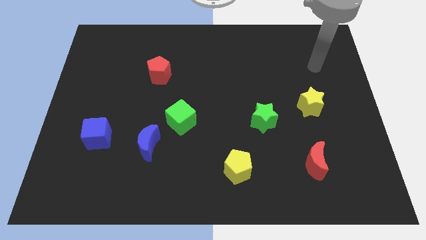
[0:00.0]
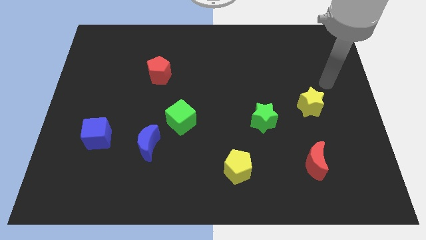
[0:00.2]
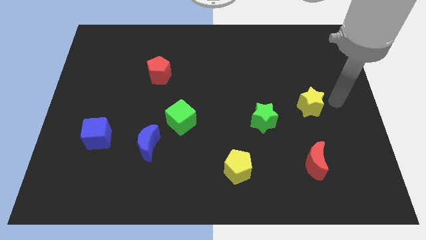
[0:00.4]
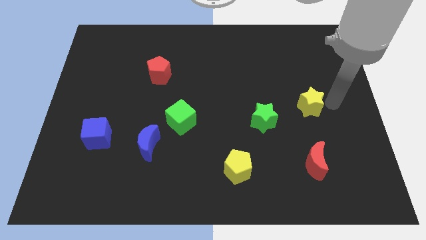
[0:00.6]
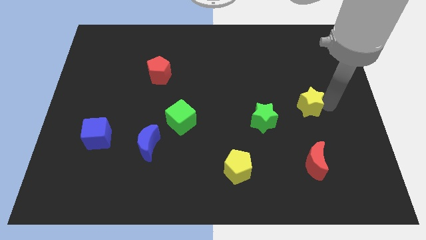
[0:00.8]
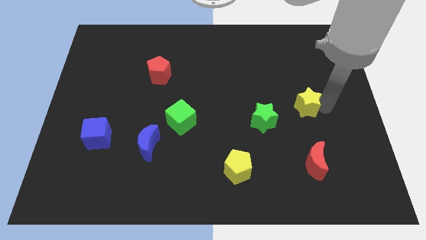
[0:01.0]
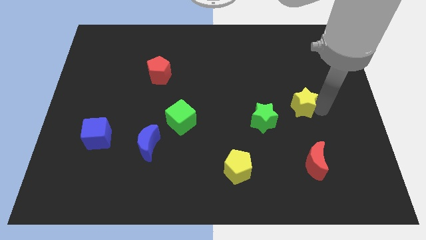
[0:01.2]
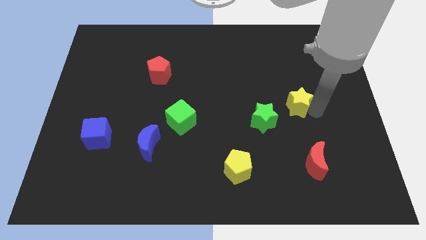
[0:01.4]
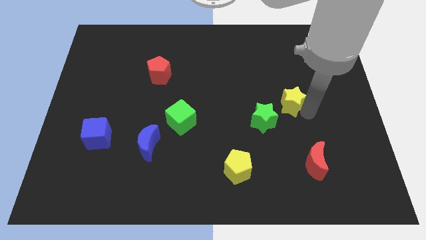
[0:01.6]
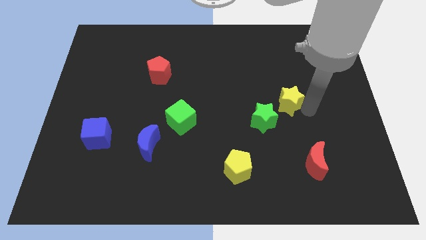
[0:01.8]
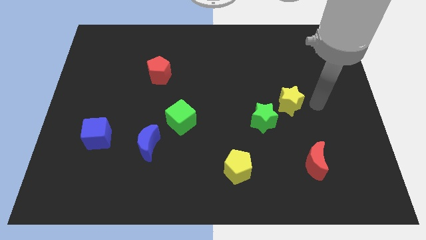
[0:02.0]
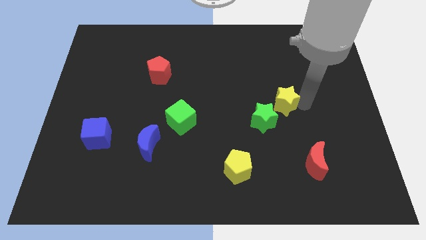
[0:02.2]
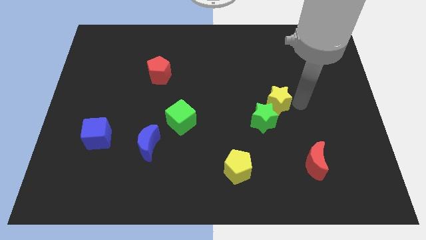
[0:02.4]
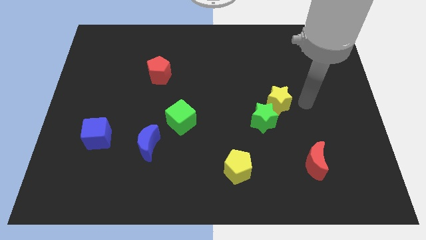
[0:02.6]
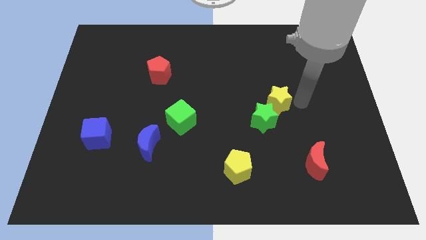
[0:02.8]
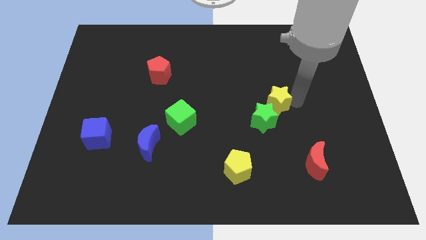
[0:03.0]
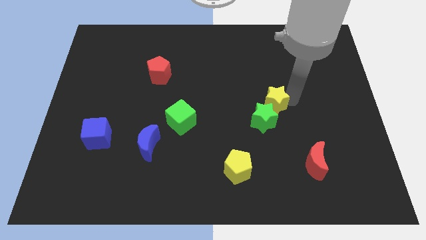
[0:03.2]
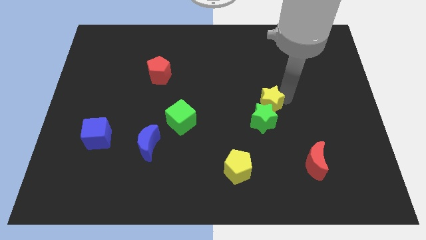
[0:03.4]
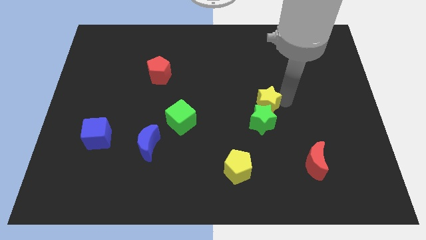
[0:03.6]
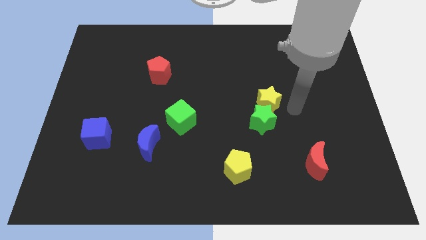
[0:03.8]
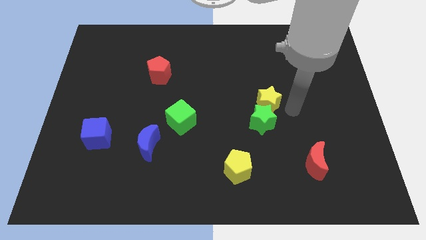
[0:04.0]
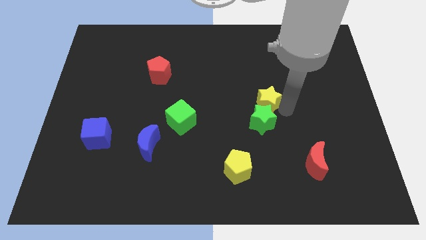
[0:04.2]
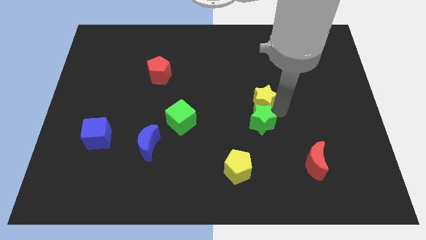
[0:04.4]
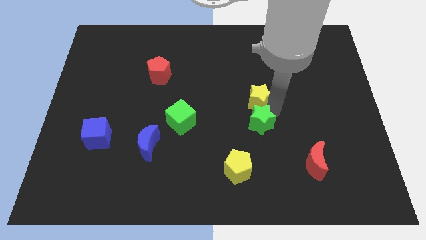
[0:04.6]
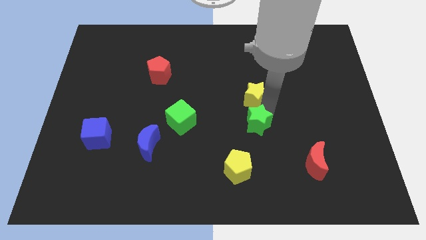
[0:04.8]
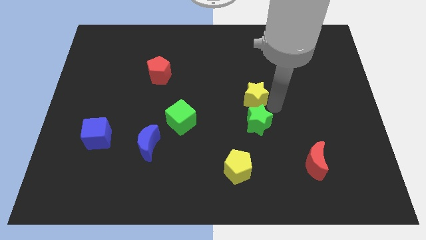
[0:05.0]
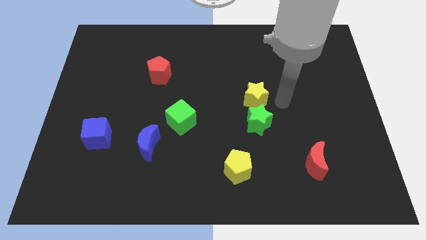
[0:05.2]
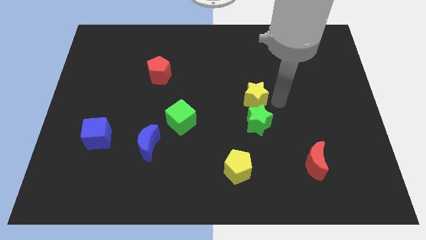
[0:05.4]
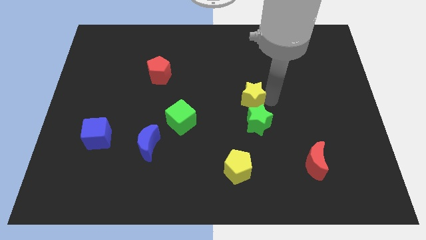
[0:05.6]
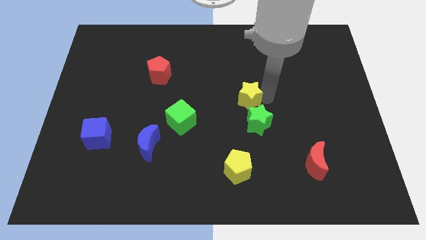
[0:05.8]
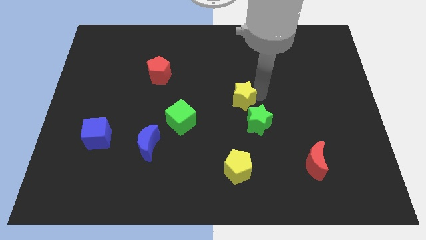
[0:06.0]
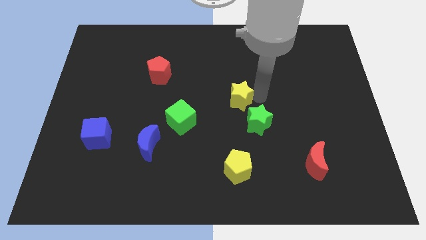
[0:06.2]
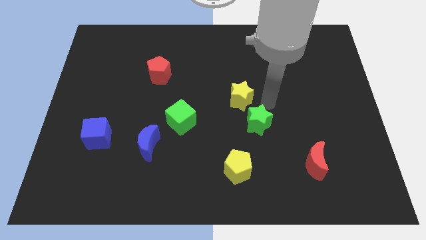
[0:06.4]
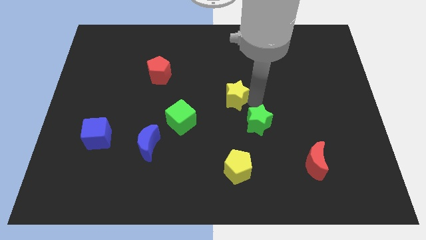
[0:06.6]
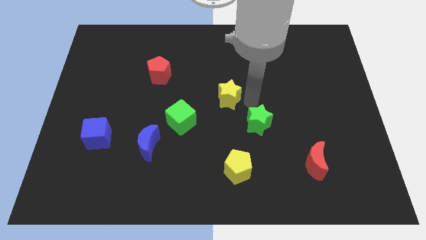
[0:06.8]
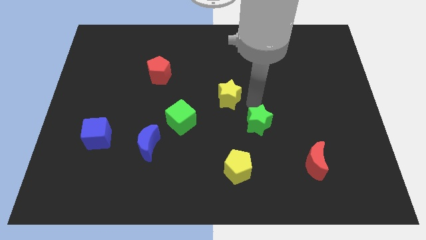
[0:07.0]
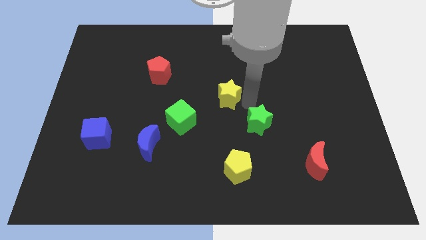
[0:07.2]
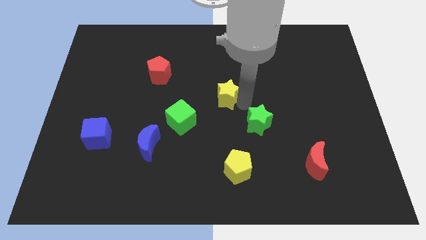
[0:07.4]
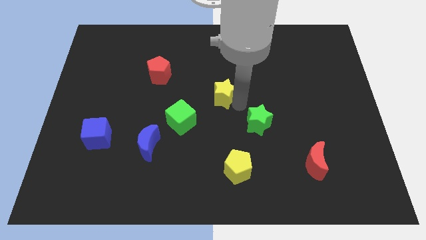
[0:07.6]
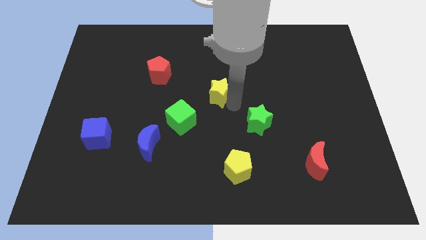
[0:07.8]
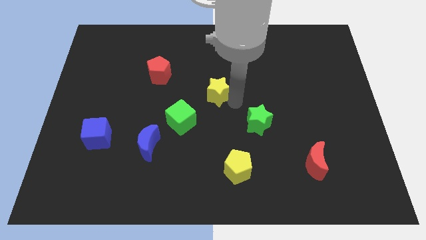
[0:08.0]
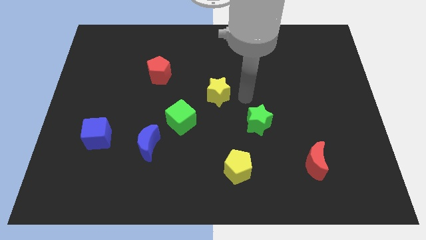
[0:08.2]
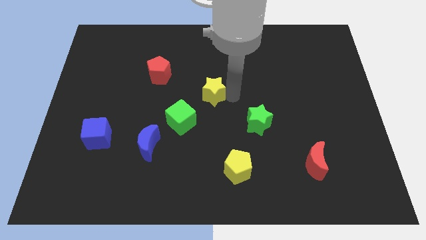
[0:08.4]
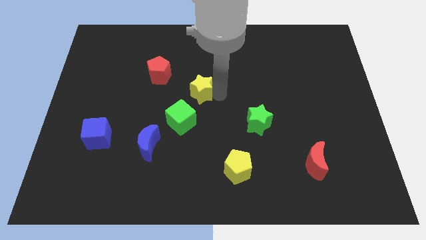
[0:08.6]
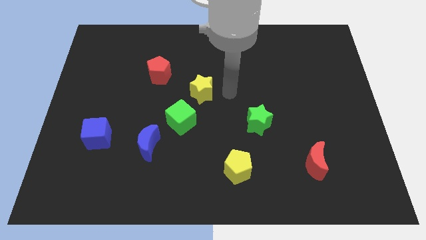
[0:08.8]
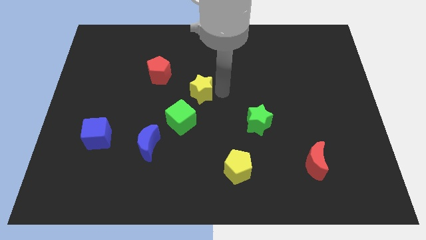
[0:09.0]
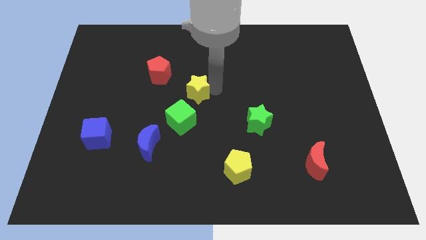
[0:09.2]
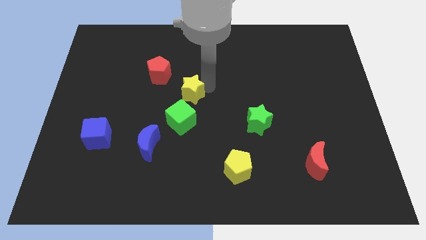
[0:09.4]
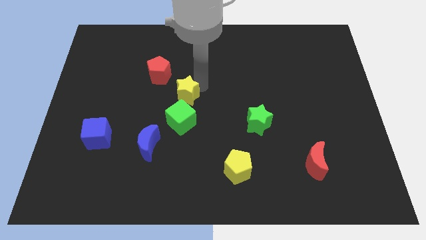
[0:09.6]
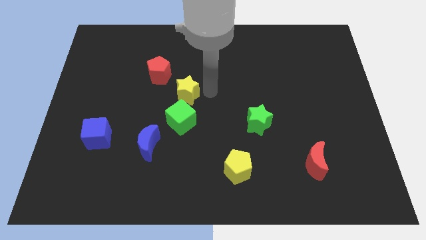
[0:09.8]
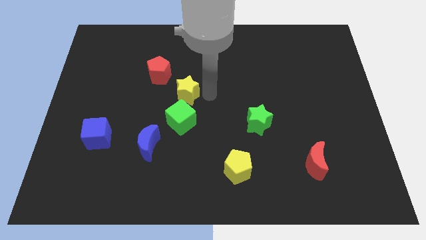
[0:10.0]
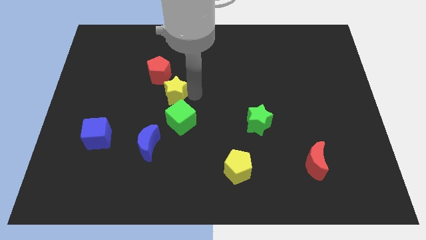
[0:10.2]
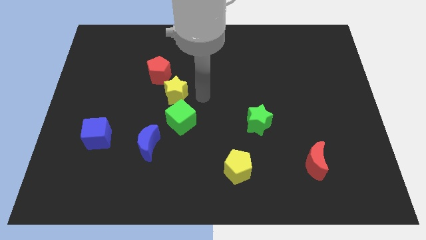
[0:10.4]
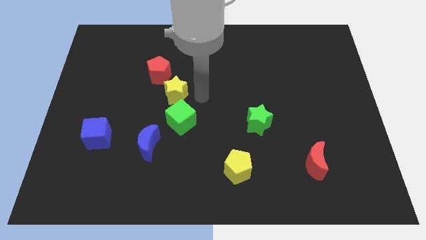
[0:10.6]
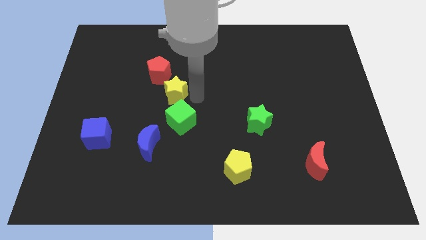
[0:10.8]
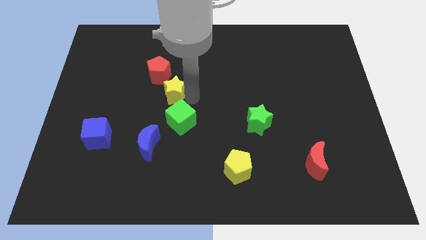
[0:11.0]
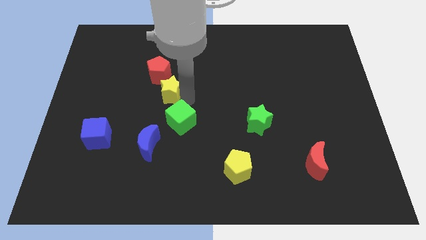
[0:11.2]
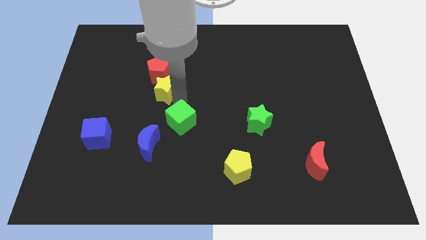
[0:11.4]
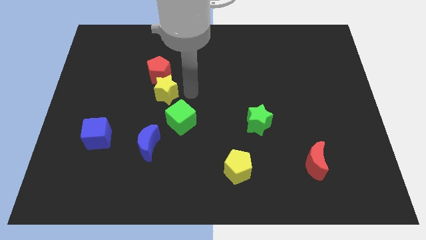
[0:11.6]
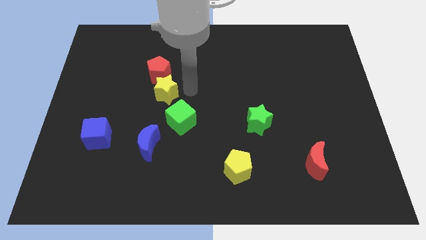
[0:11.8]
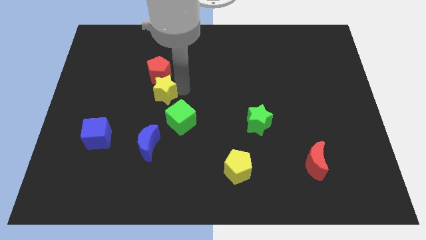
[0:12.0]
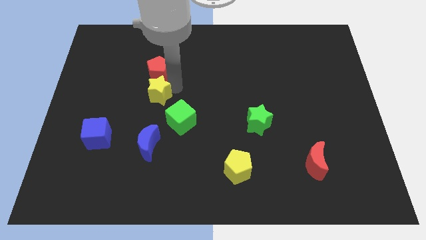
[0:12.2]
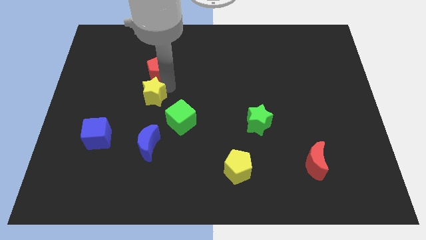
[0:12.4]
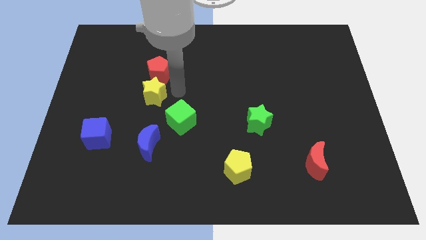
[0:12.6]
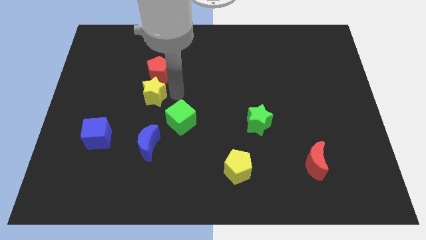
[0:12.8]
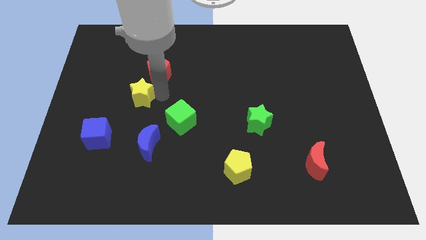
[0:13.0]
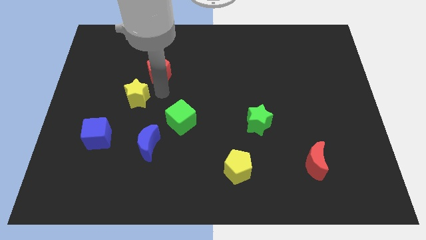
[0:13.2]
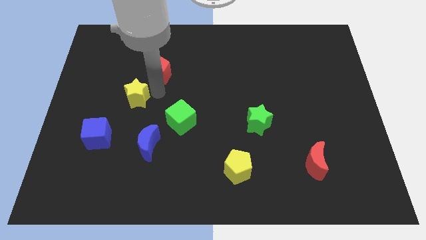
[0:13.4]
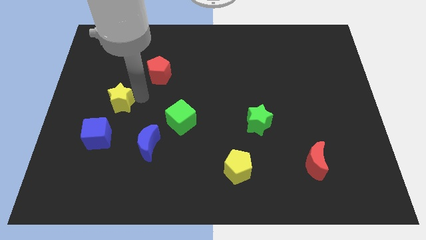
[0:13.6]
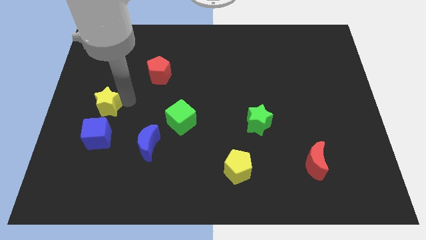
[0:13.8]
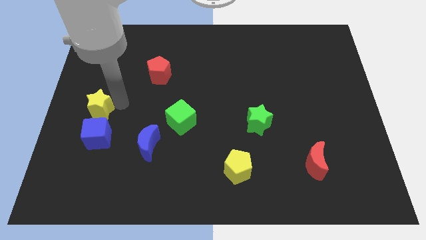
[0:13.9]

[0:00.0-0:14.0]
push the yellow star to the left side of the board
